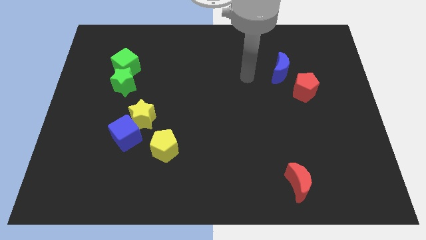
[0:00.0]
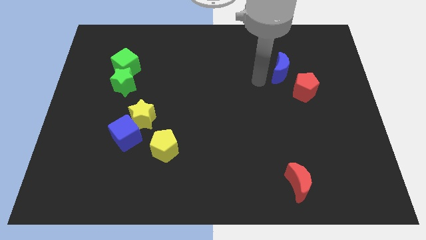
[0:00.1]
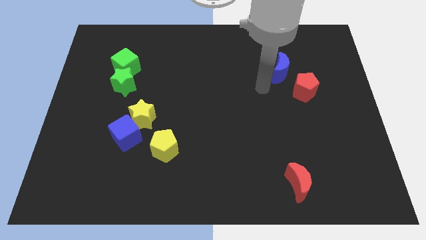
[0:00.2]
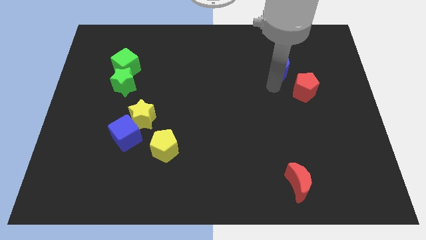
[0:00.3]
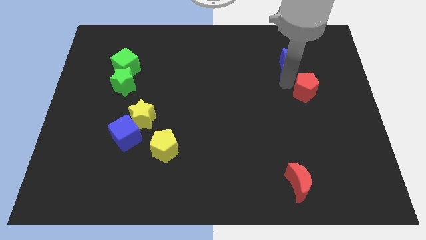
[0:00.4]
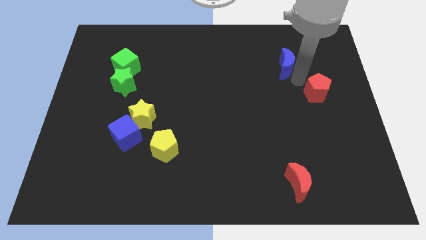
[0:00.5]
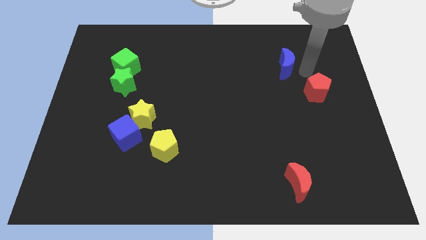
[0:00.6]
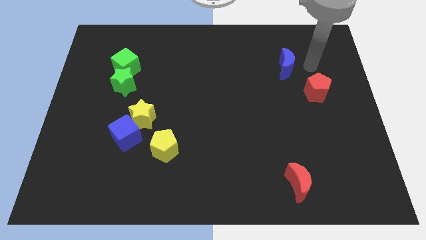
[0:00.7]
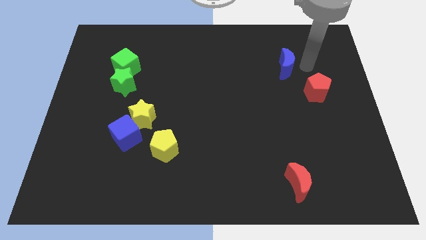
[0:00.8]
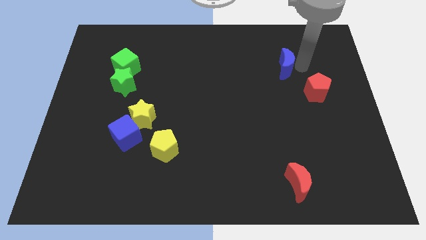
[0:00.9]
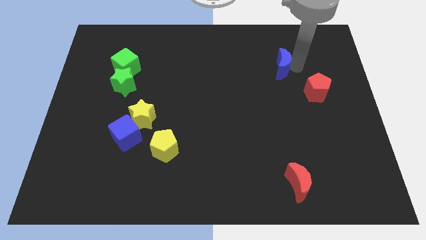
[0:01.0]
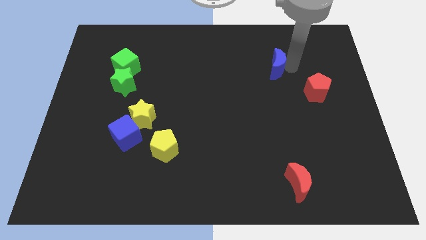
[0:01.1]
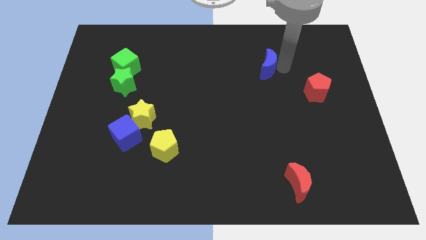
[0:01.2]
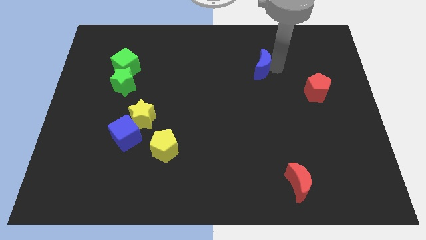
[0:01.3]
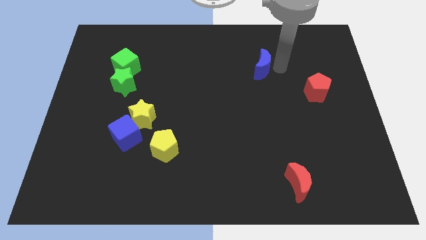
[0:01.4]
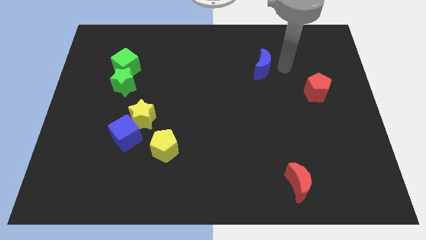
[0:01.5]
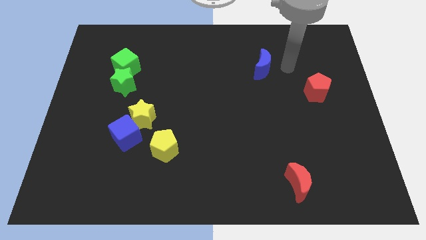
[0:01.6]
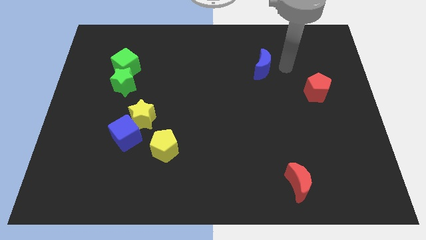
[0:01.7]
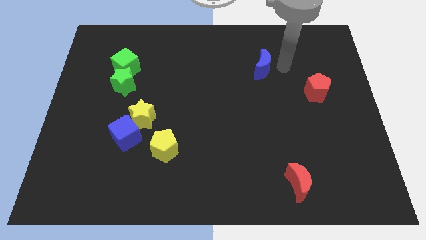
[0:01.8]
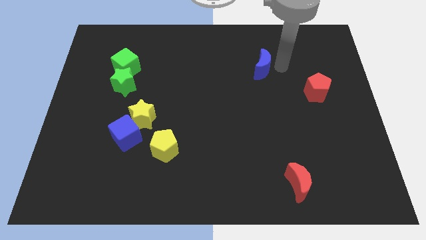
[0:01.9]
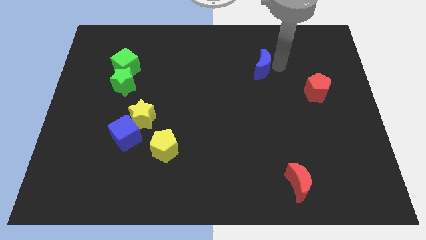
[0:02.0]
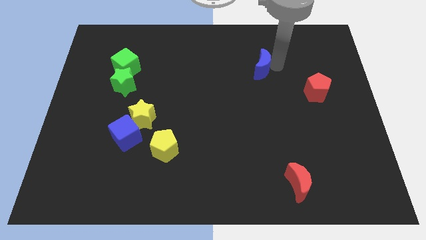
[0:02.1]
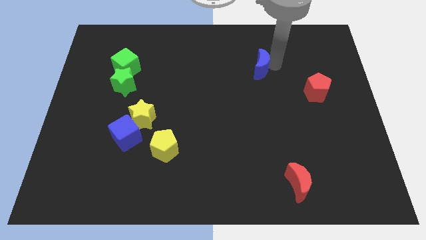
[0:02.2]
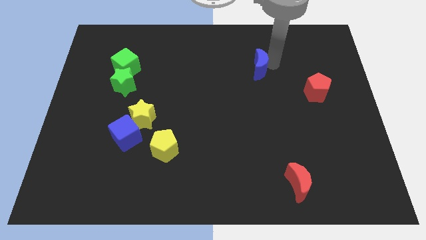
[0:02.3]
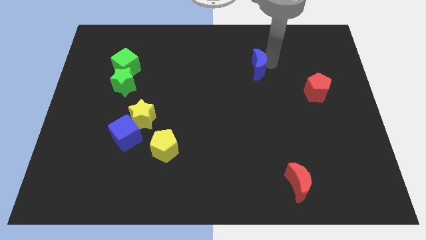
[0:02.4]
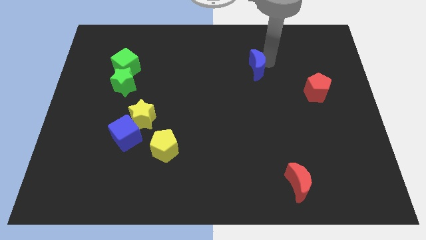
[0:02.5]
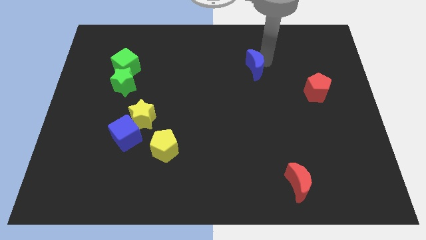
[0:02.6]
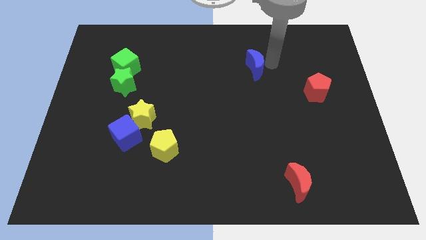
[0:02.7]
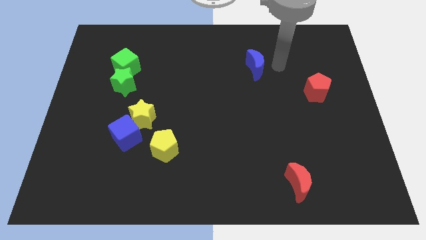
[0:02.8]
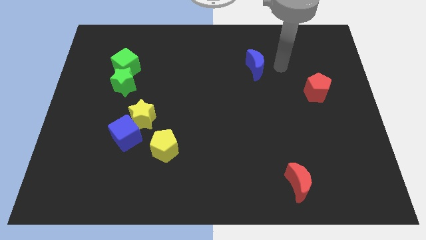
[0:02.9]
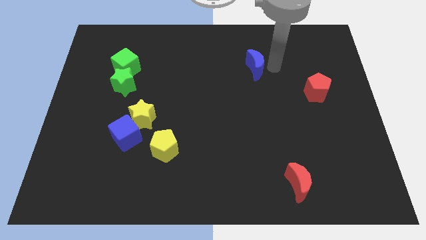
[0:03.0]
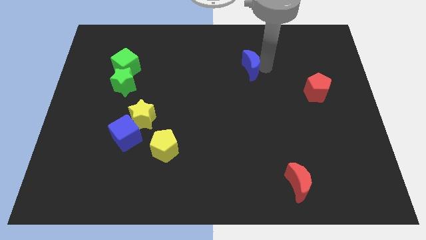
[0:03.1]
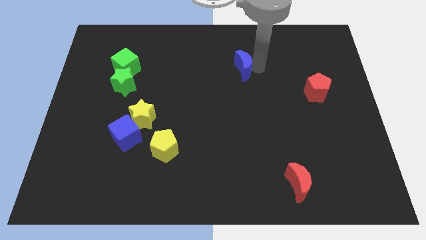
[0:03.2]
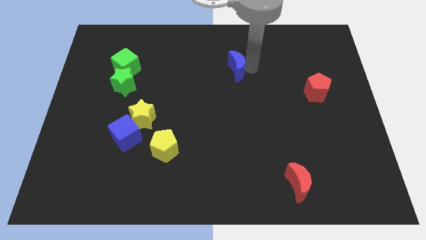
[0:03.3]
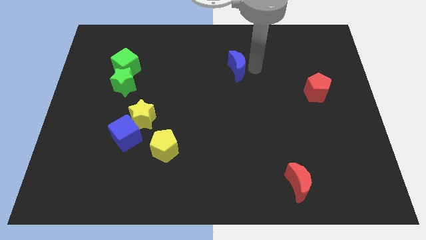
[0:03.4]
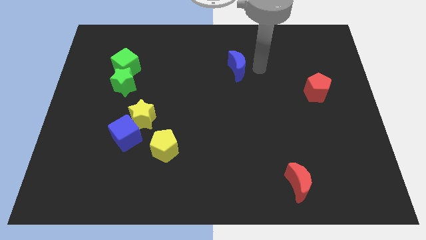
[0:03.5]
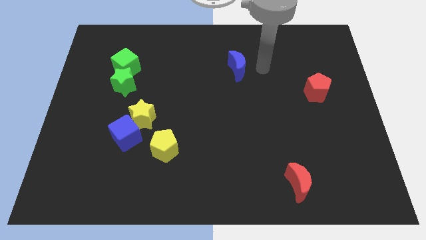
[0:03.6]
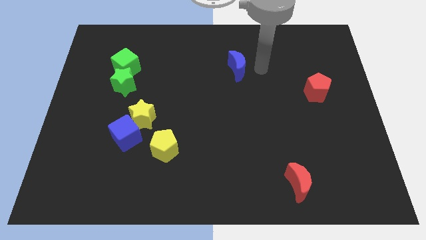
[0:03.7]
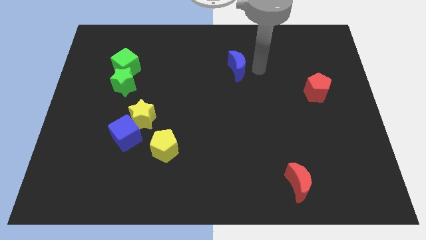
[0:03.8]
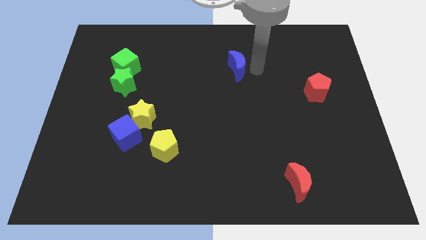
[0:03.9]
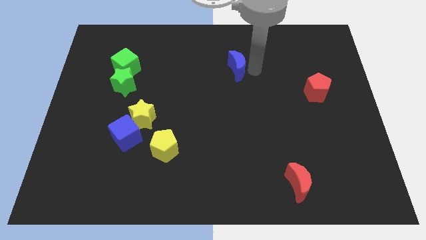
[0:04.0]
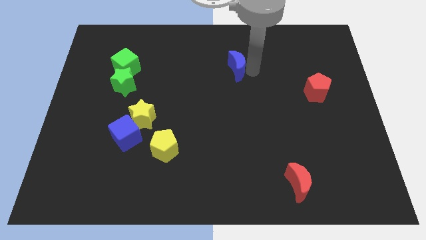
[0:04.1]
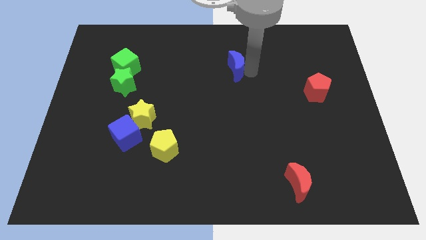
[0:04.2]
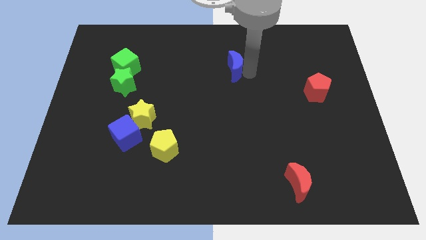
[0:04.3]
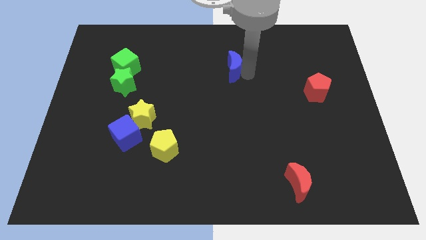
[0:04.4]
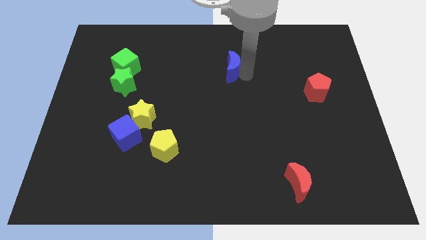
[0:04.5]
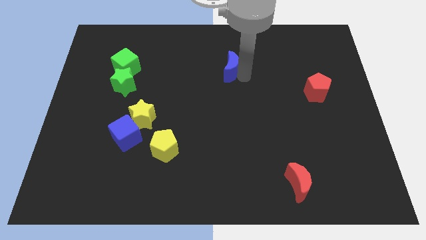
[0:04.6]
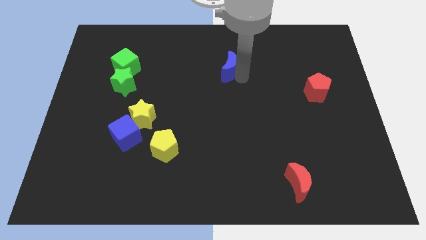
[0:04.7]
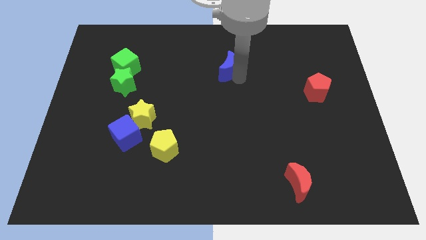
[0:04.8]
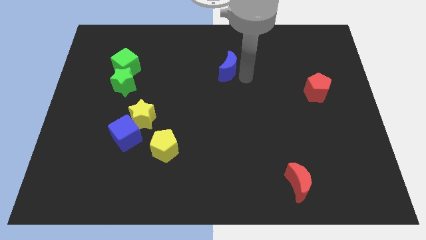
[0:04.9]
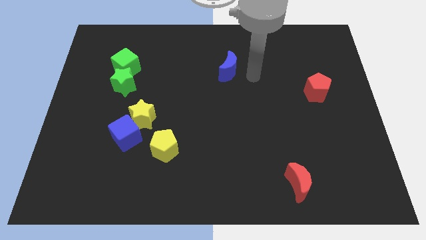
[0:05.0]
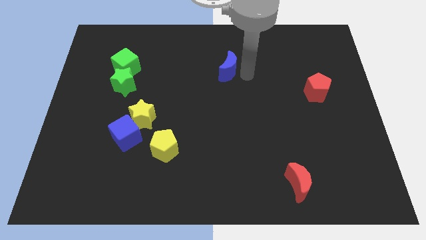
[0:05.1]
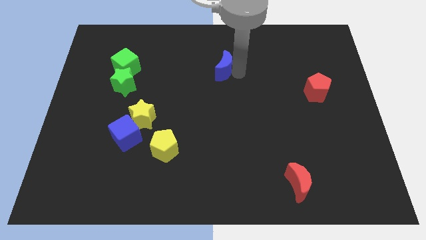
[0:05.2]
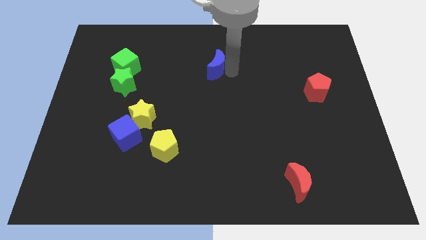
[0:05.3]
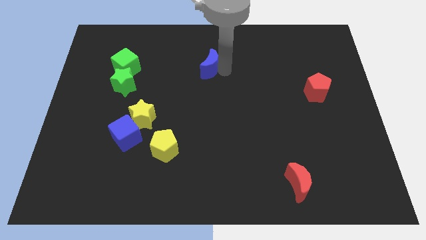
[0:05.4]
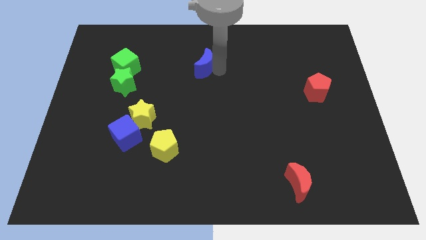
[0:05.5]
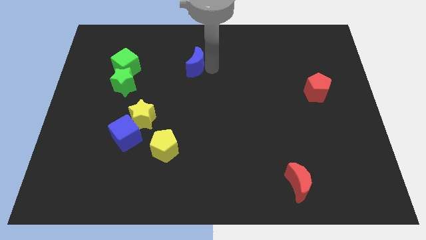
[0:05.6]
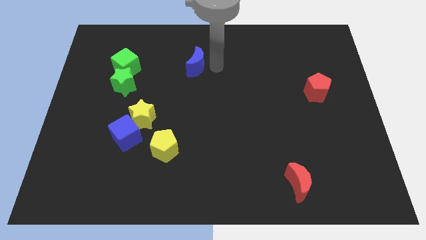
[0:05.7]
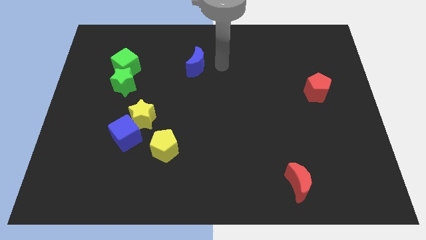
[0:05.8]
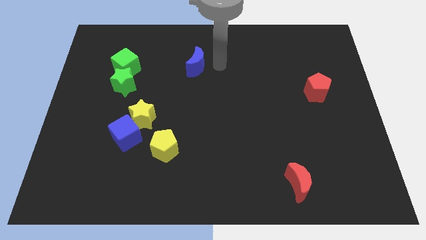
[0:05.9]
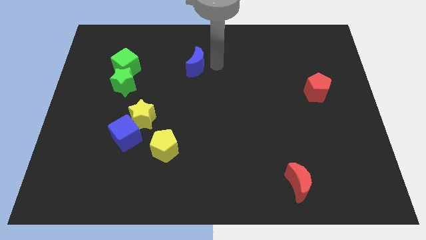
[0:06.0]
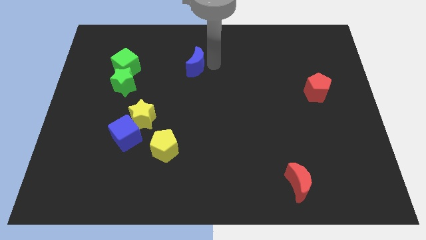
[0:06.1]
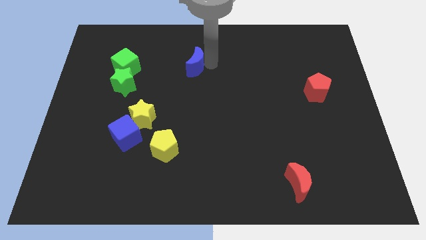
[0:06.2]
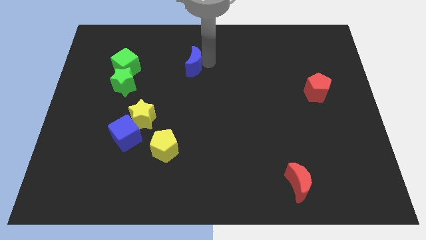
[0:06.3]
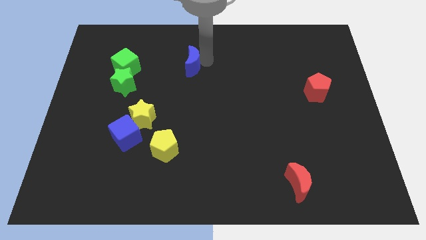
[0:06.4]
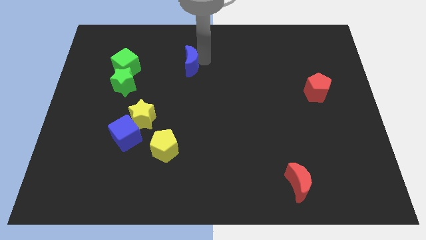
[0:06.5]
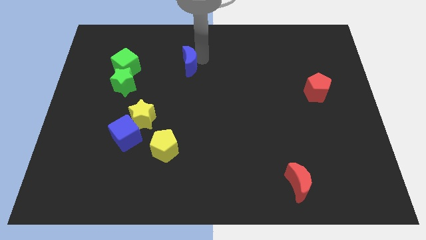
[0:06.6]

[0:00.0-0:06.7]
push the blue moon just right of the green cube
